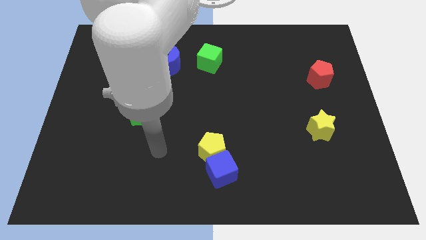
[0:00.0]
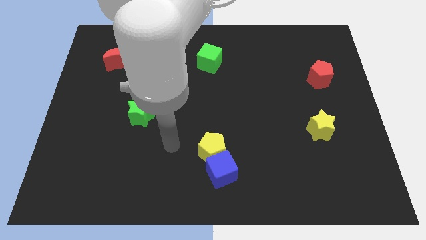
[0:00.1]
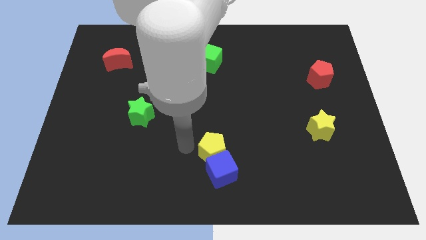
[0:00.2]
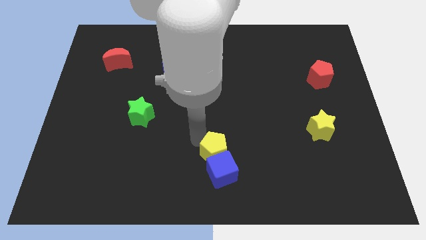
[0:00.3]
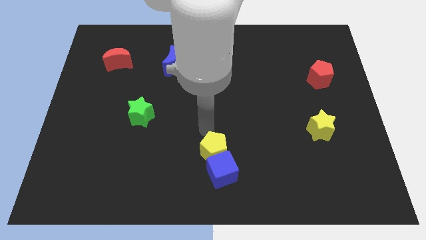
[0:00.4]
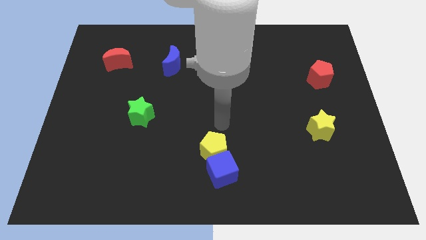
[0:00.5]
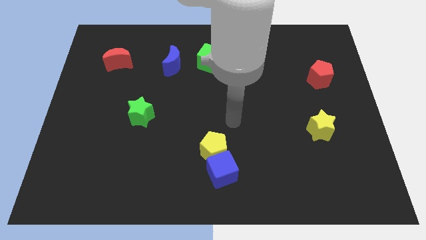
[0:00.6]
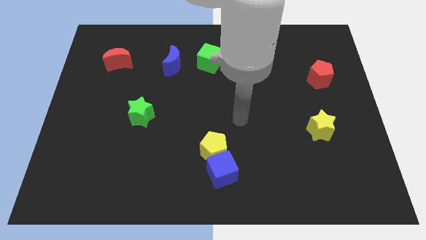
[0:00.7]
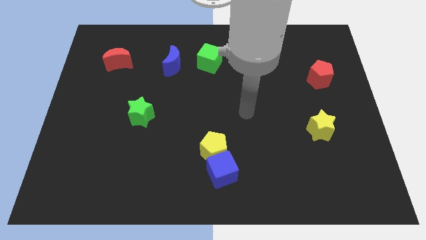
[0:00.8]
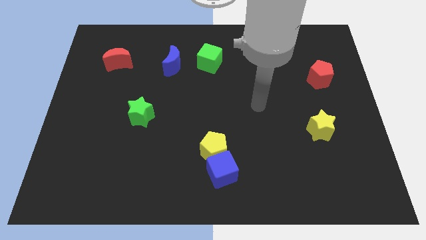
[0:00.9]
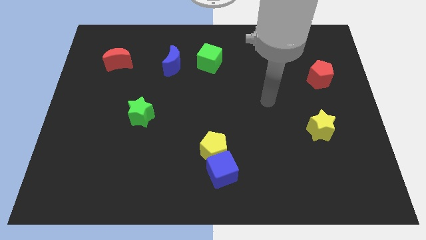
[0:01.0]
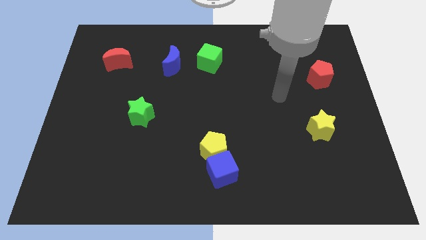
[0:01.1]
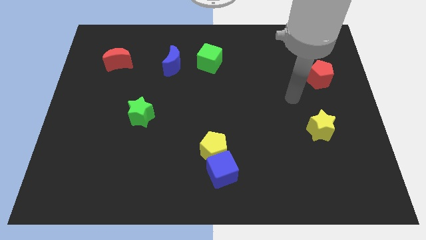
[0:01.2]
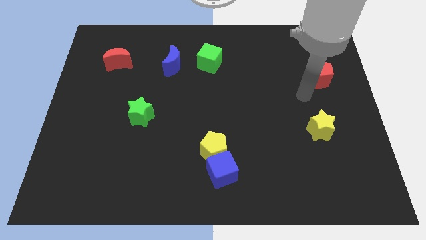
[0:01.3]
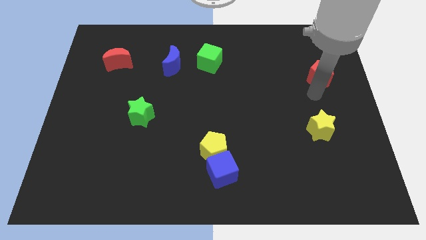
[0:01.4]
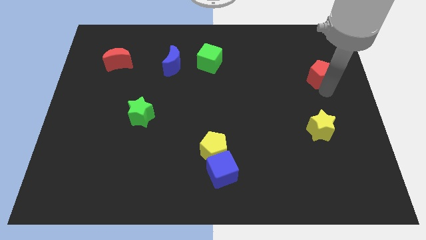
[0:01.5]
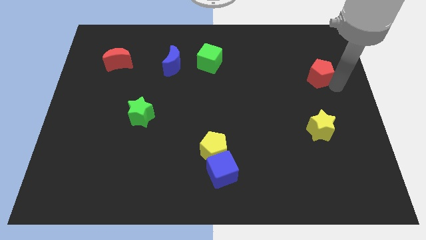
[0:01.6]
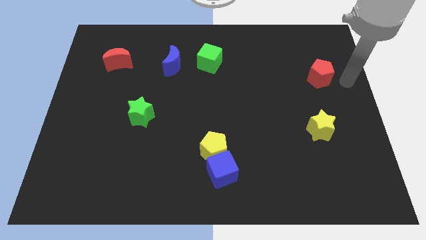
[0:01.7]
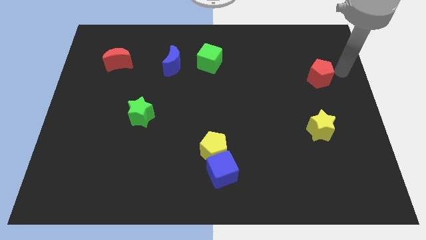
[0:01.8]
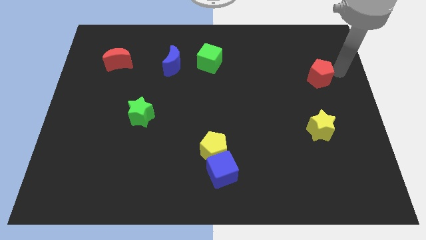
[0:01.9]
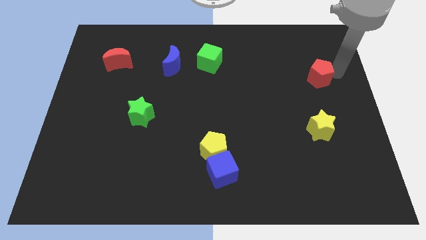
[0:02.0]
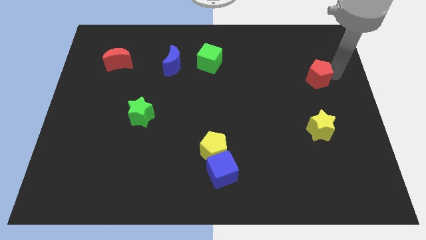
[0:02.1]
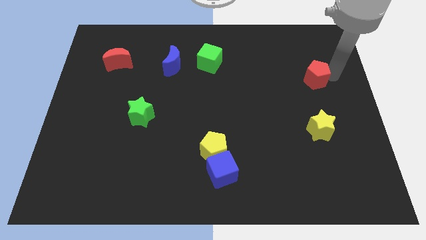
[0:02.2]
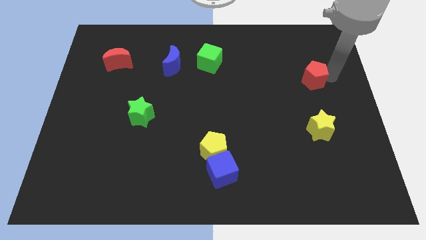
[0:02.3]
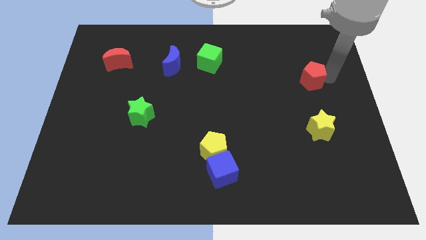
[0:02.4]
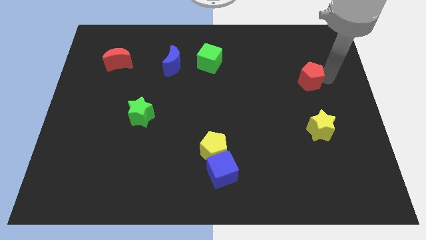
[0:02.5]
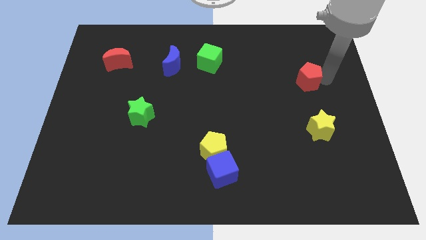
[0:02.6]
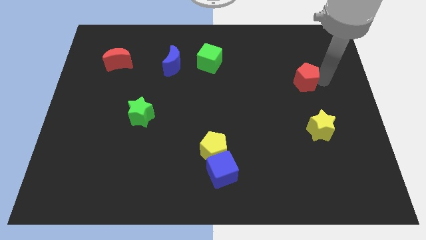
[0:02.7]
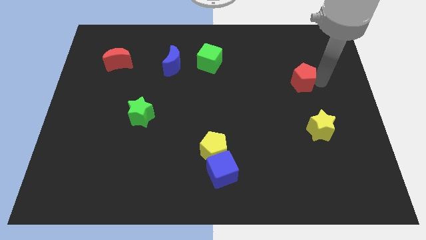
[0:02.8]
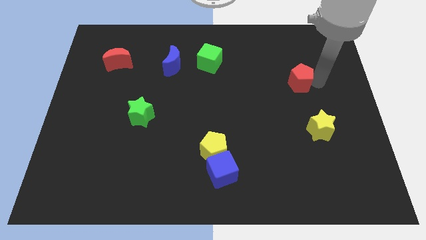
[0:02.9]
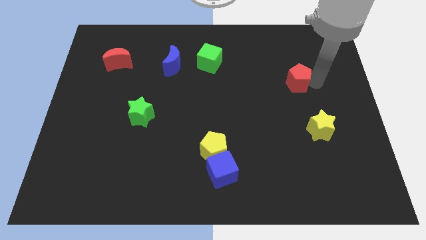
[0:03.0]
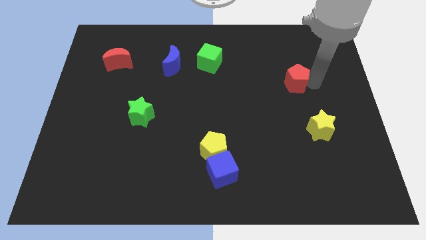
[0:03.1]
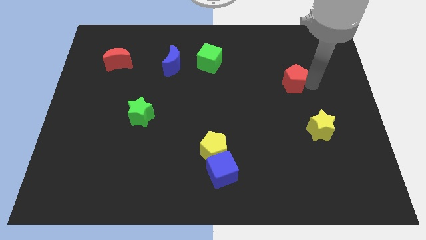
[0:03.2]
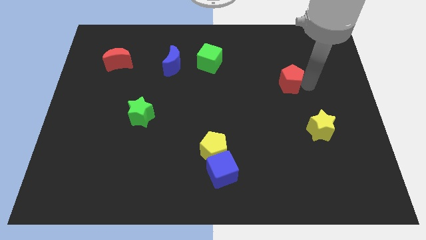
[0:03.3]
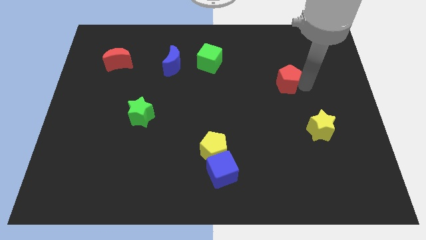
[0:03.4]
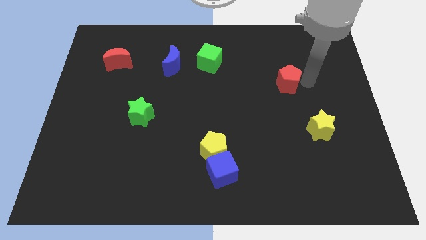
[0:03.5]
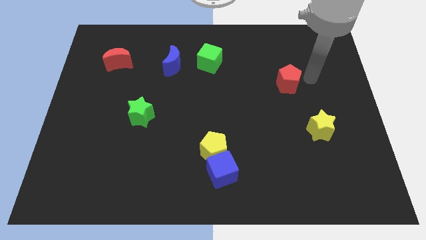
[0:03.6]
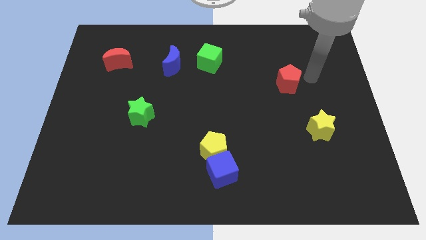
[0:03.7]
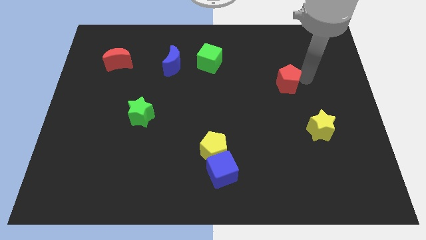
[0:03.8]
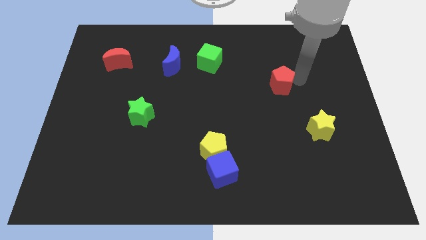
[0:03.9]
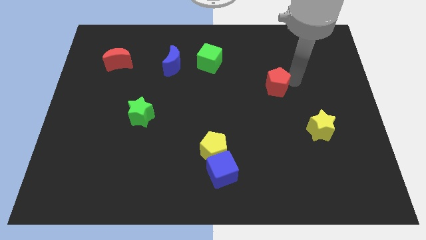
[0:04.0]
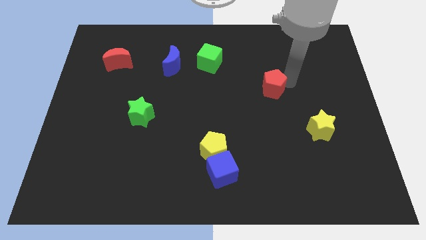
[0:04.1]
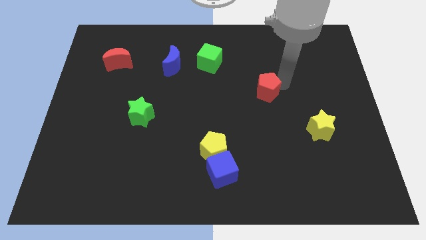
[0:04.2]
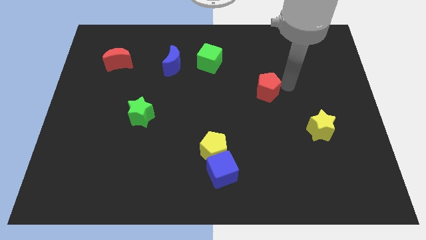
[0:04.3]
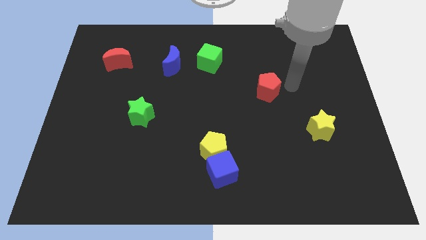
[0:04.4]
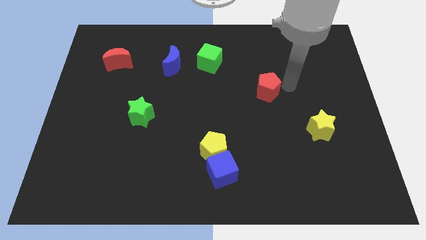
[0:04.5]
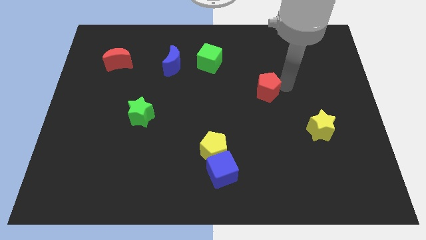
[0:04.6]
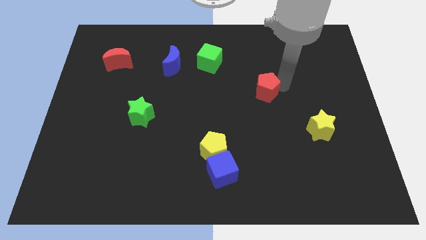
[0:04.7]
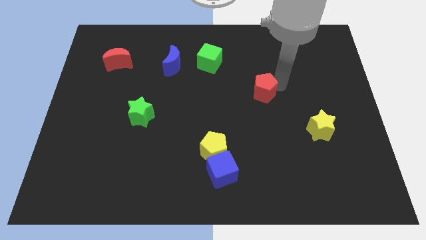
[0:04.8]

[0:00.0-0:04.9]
move the red pentagon to the center

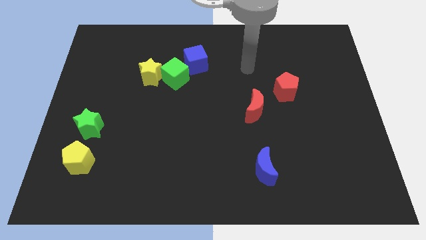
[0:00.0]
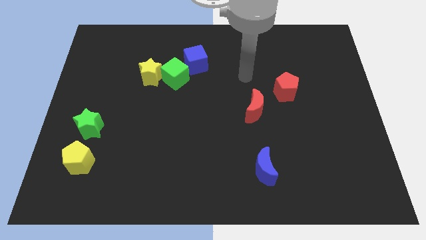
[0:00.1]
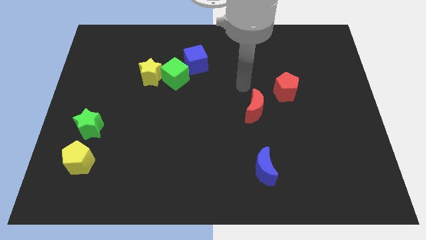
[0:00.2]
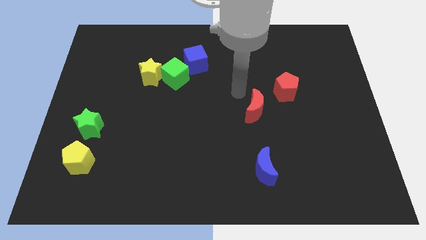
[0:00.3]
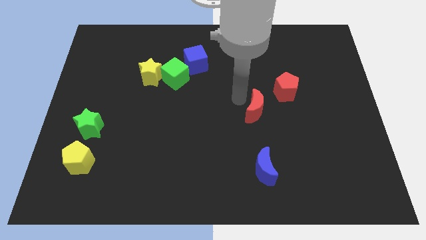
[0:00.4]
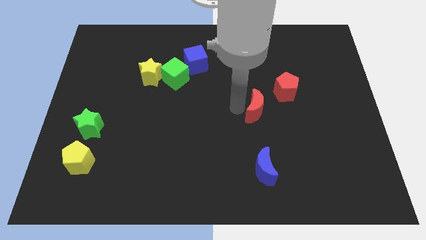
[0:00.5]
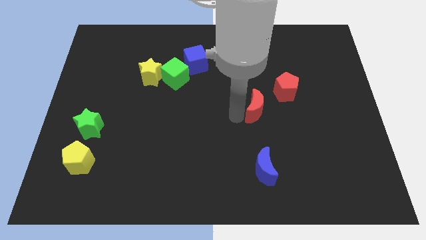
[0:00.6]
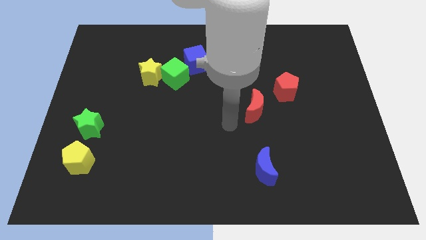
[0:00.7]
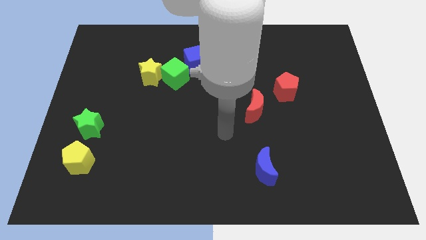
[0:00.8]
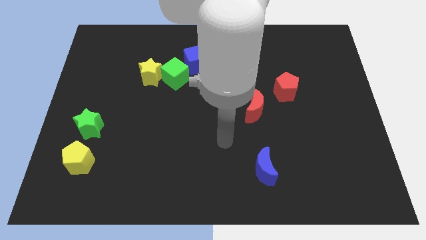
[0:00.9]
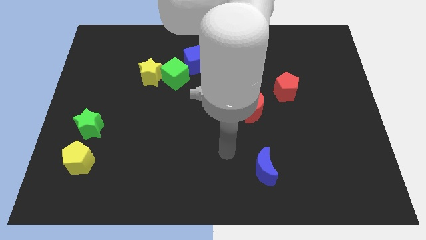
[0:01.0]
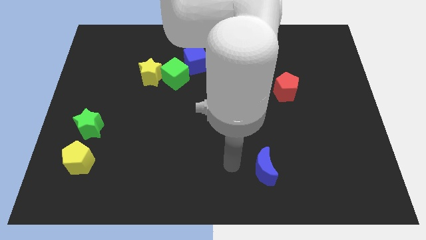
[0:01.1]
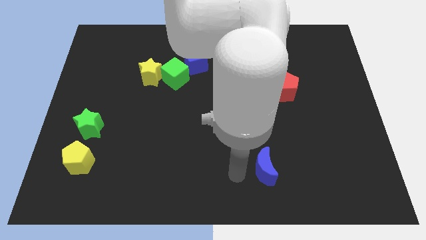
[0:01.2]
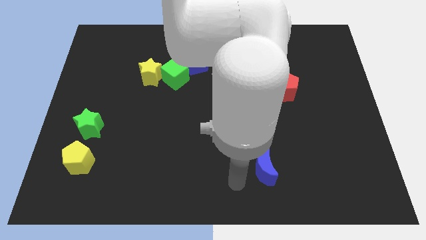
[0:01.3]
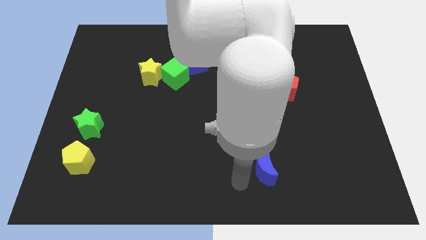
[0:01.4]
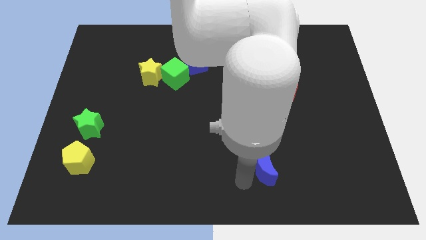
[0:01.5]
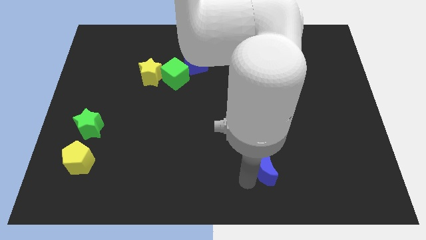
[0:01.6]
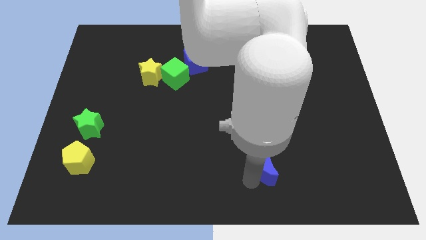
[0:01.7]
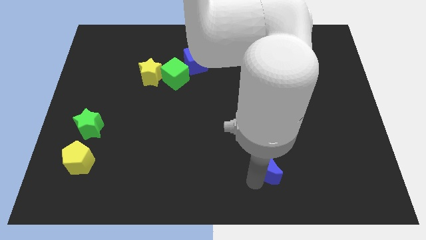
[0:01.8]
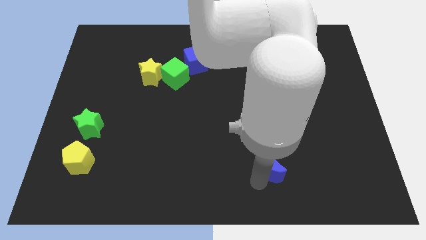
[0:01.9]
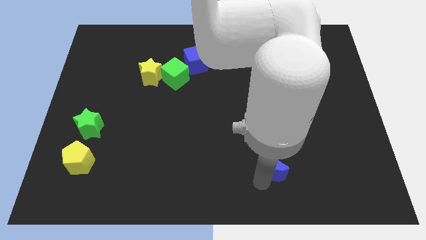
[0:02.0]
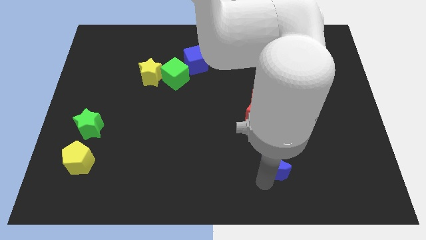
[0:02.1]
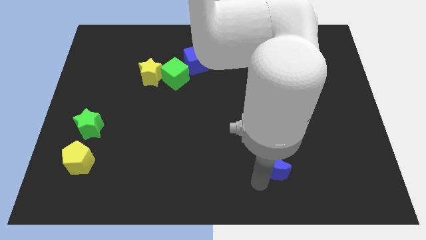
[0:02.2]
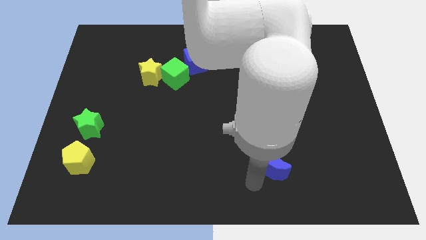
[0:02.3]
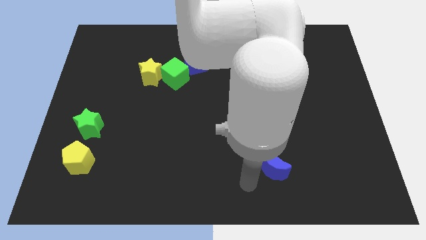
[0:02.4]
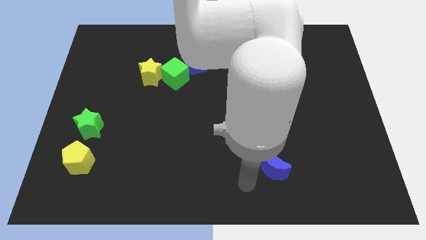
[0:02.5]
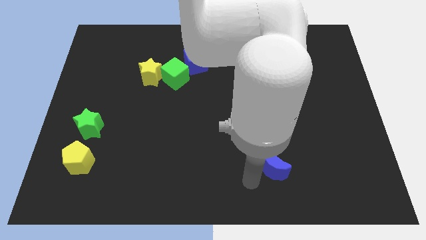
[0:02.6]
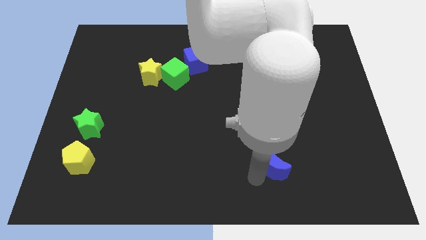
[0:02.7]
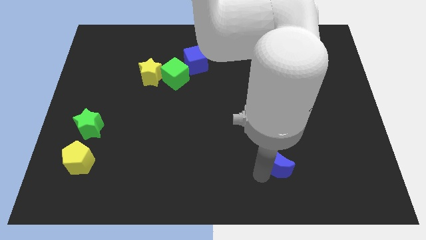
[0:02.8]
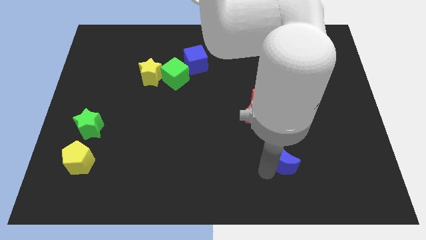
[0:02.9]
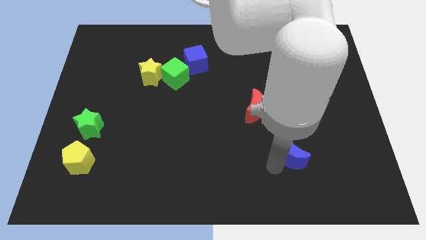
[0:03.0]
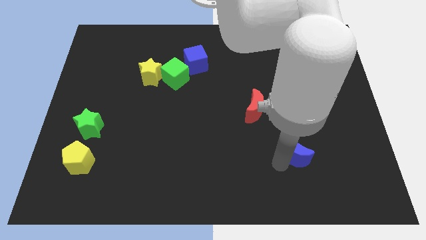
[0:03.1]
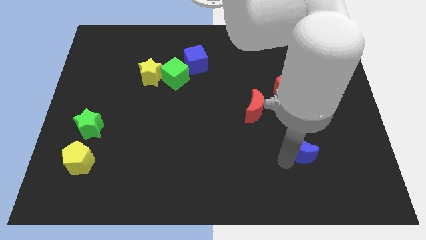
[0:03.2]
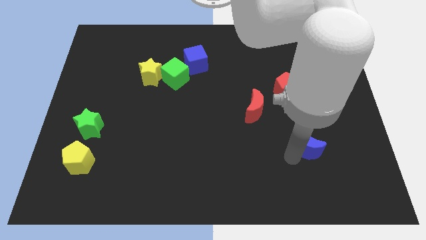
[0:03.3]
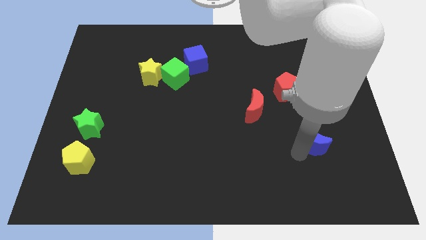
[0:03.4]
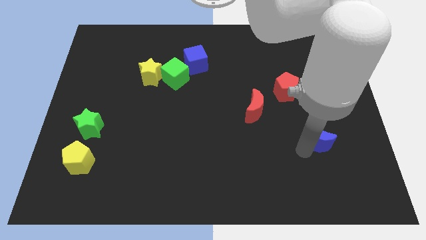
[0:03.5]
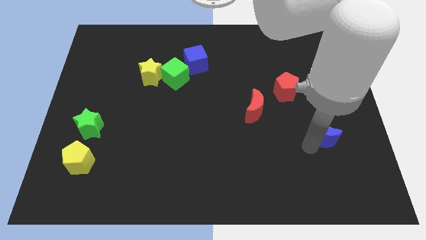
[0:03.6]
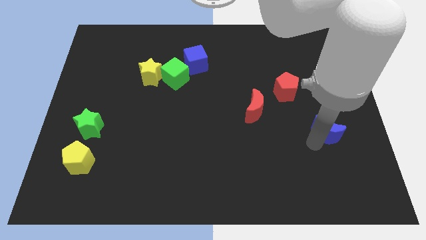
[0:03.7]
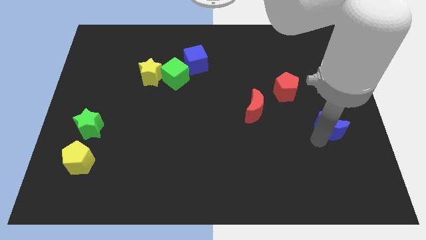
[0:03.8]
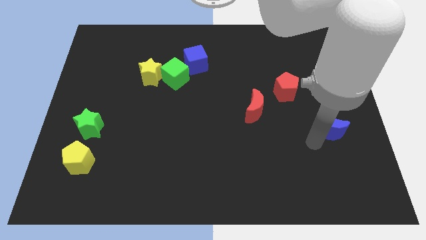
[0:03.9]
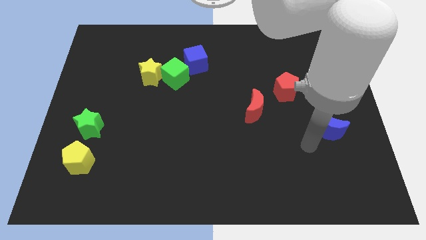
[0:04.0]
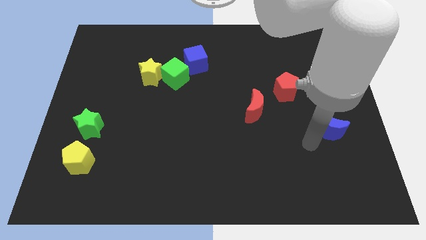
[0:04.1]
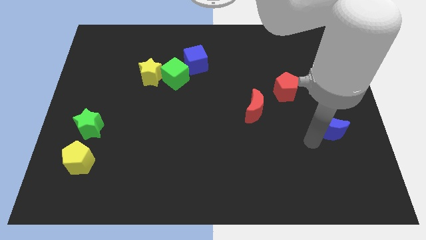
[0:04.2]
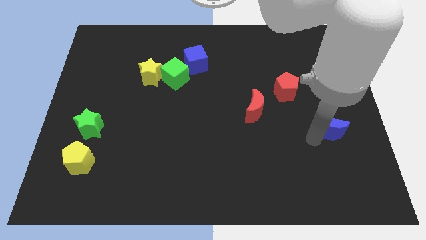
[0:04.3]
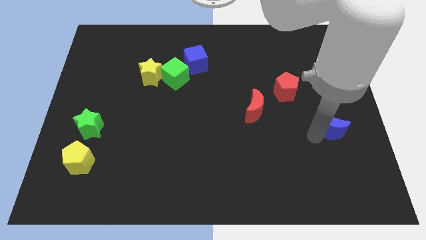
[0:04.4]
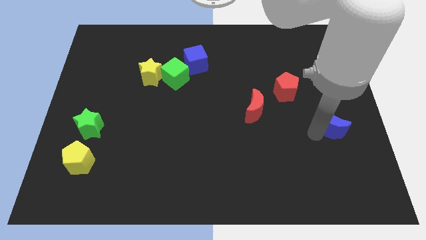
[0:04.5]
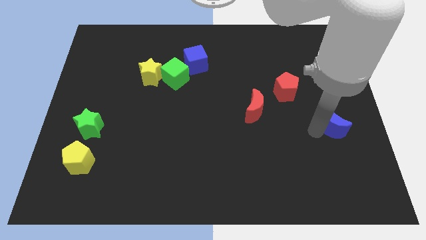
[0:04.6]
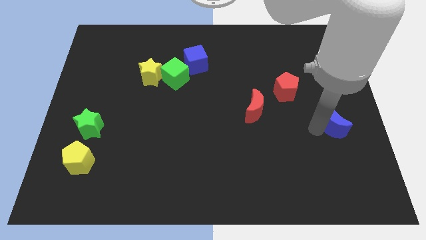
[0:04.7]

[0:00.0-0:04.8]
move the blue moon to the center right
